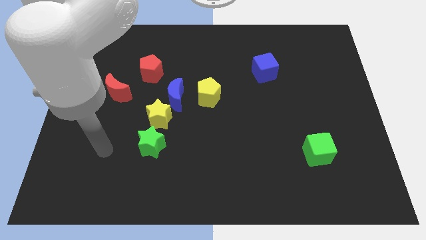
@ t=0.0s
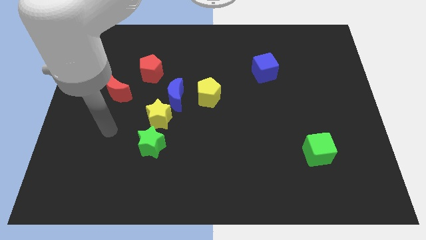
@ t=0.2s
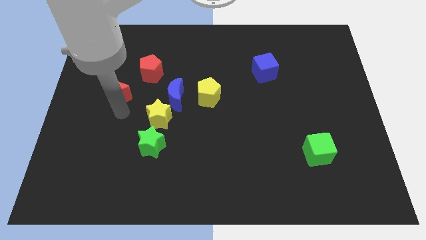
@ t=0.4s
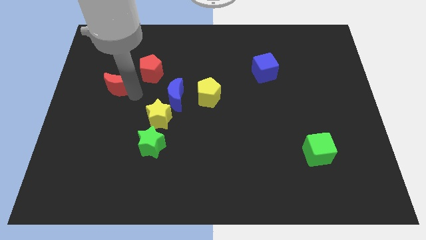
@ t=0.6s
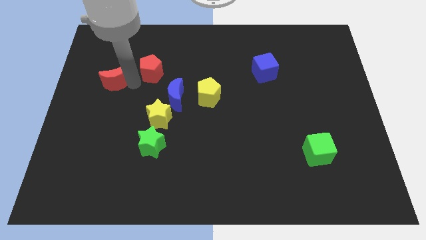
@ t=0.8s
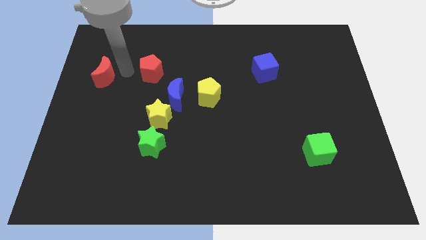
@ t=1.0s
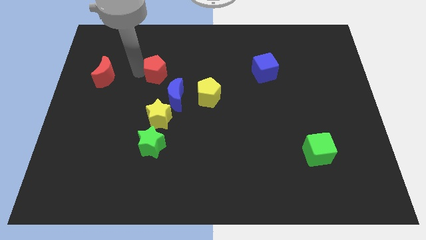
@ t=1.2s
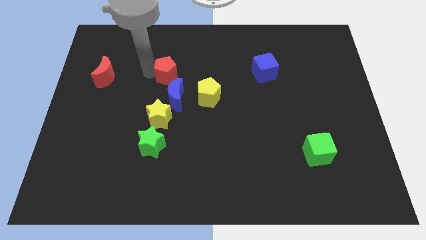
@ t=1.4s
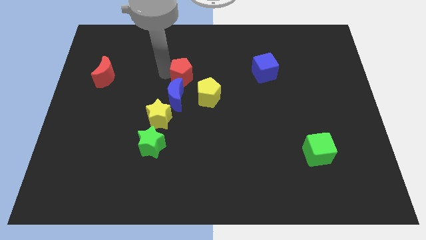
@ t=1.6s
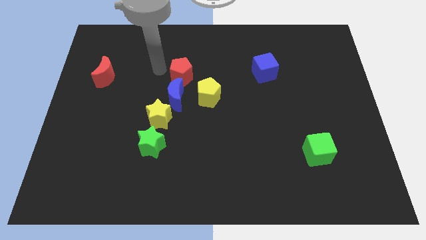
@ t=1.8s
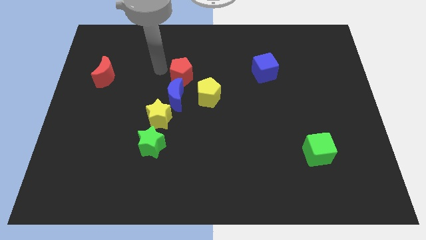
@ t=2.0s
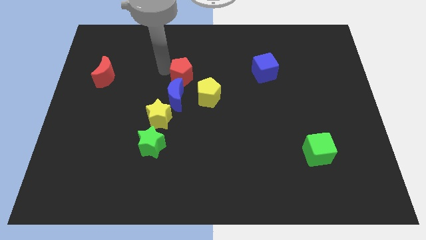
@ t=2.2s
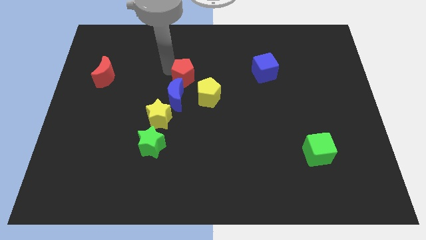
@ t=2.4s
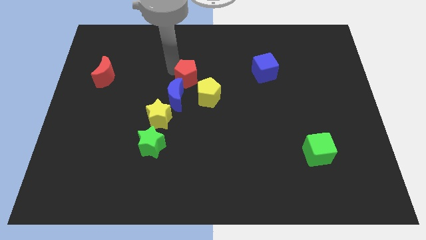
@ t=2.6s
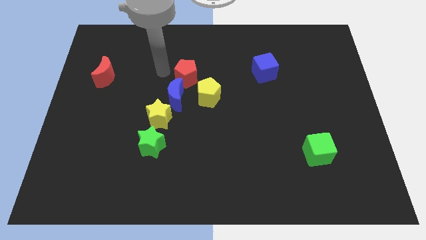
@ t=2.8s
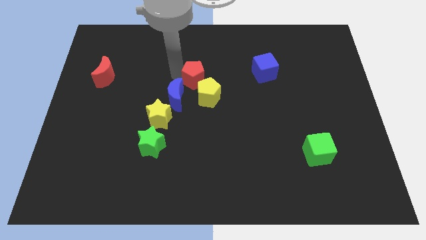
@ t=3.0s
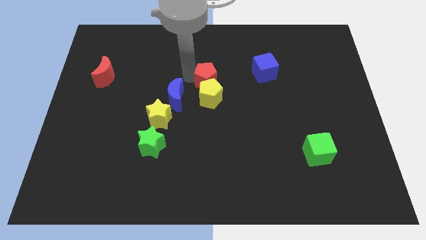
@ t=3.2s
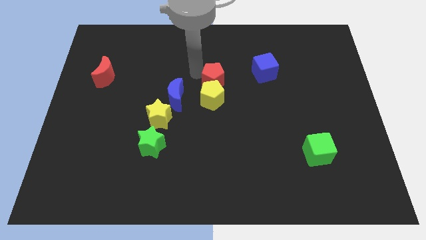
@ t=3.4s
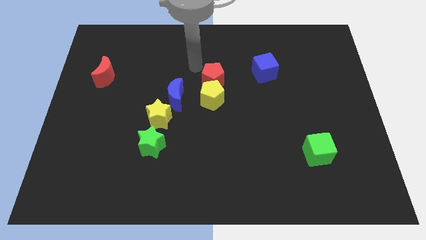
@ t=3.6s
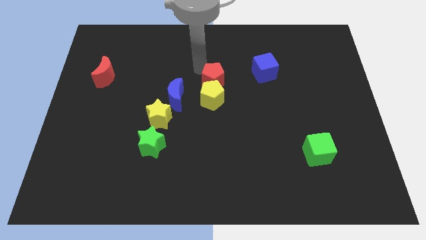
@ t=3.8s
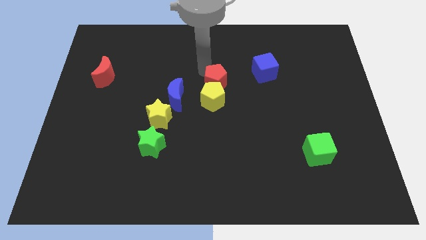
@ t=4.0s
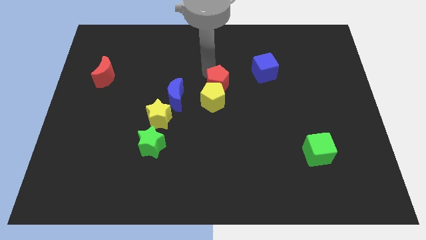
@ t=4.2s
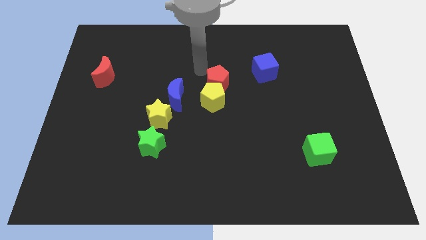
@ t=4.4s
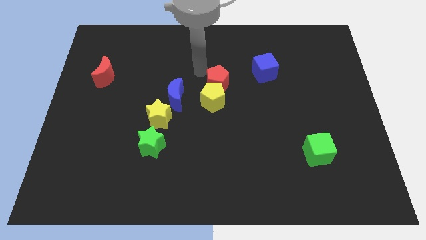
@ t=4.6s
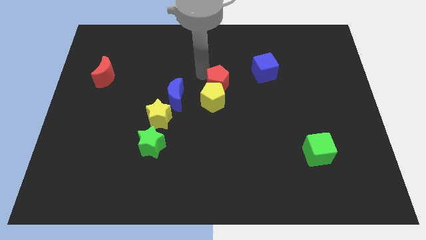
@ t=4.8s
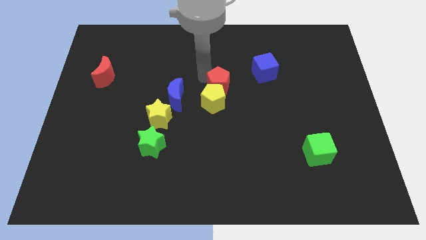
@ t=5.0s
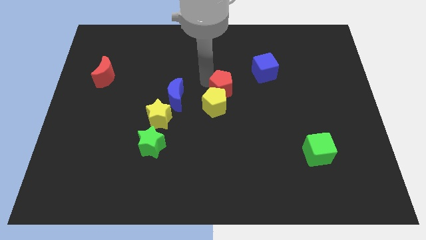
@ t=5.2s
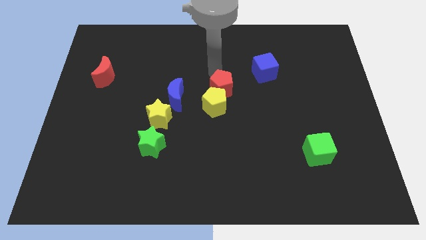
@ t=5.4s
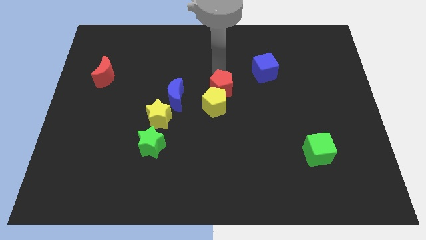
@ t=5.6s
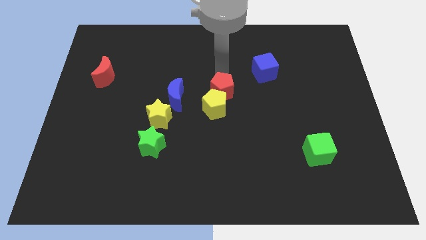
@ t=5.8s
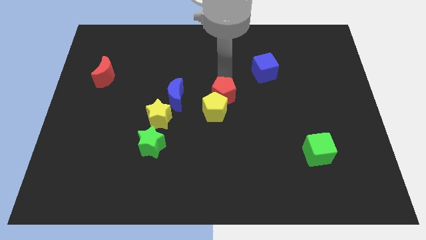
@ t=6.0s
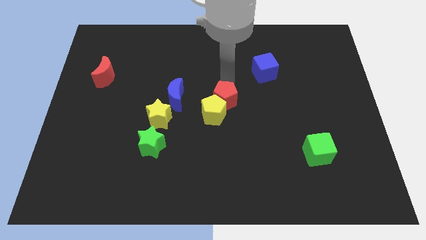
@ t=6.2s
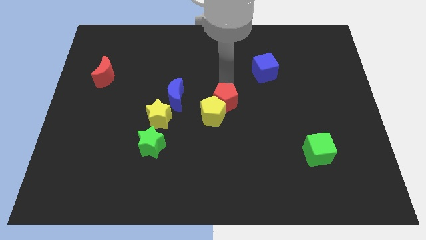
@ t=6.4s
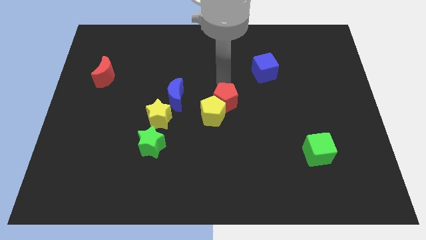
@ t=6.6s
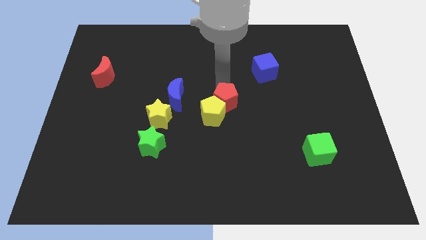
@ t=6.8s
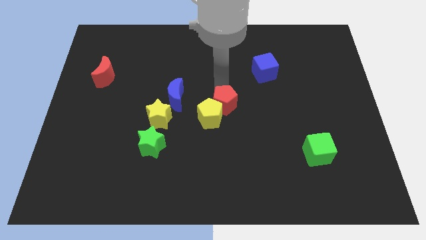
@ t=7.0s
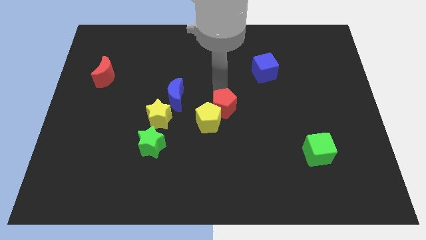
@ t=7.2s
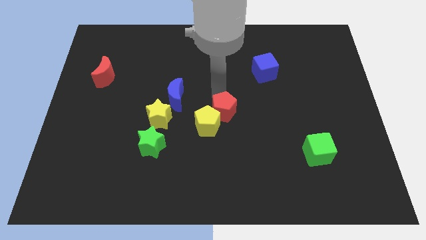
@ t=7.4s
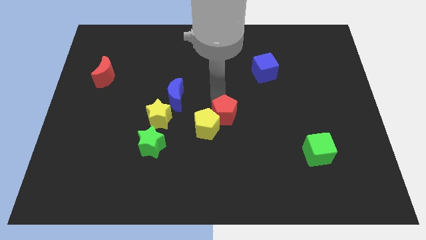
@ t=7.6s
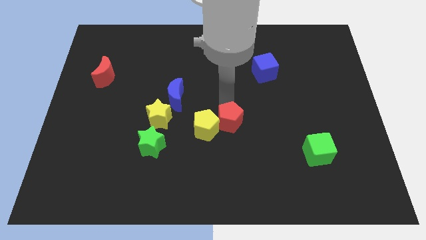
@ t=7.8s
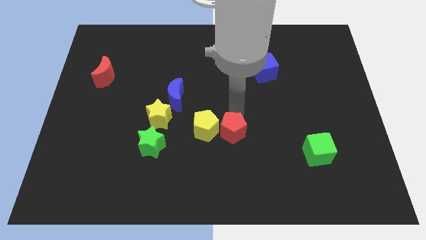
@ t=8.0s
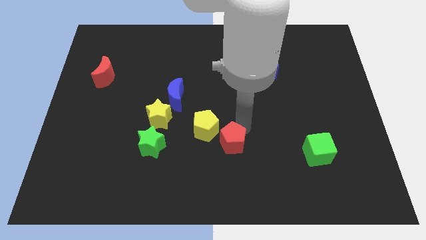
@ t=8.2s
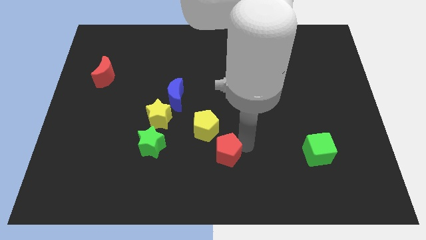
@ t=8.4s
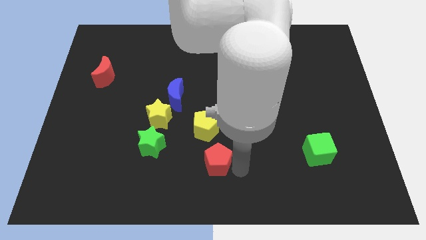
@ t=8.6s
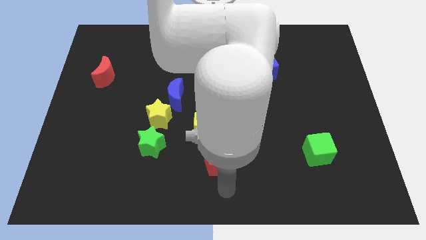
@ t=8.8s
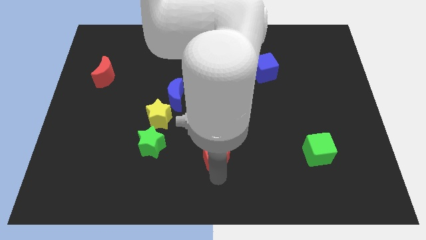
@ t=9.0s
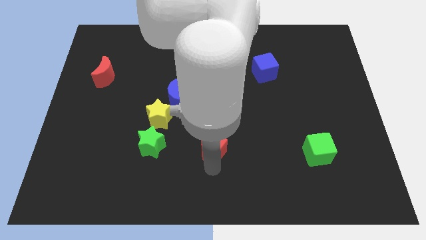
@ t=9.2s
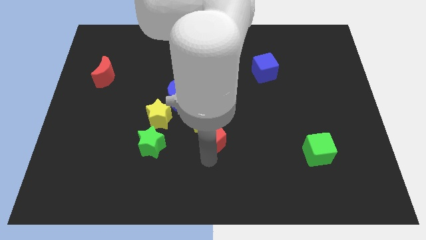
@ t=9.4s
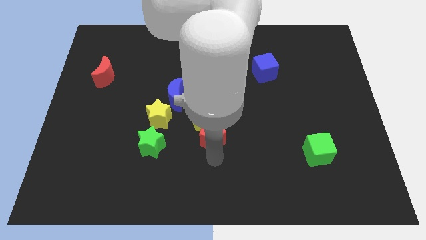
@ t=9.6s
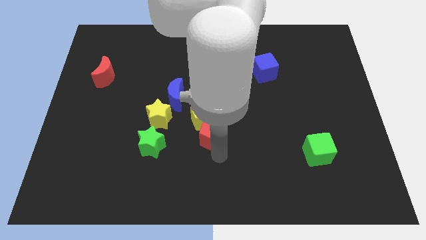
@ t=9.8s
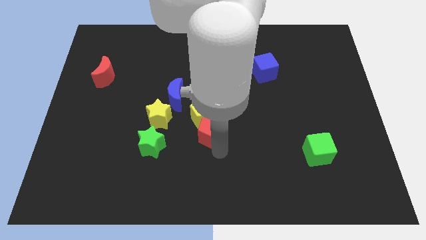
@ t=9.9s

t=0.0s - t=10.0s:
move the red pentagon to the bottom left of the yellow pentagon

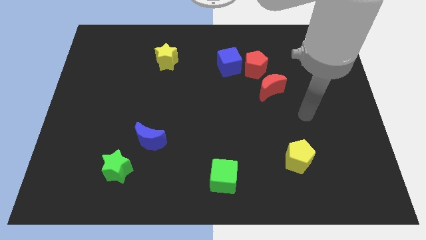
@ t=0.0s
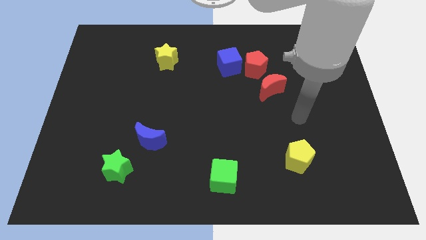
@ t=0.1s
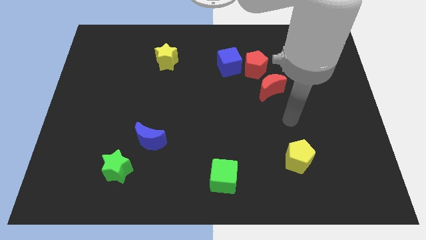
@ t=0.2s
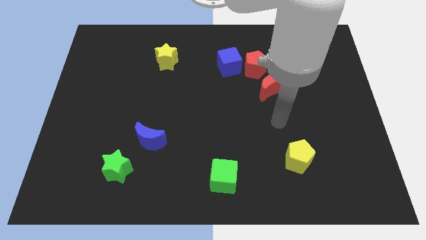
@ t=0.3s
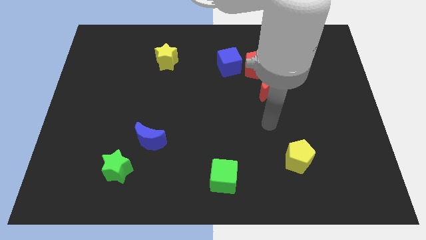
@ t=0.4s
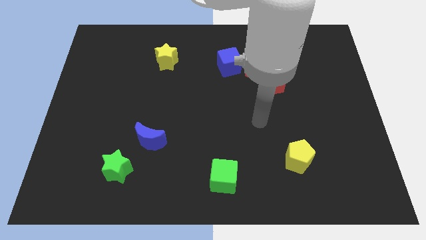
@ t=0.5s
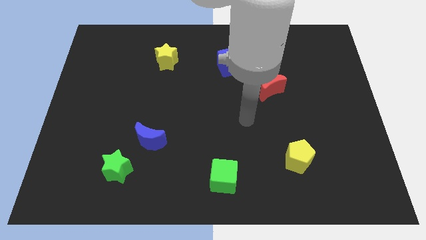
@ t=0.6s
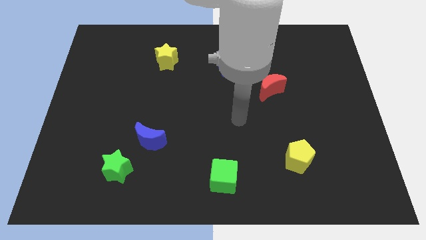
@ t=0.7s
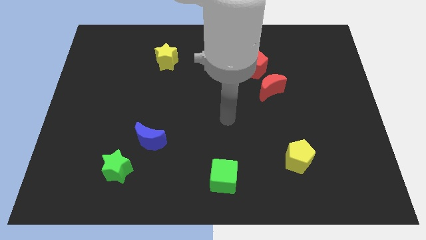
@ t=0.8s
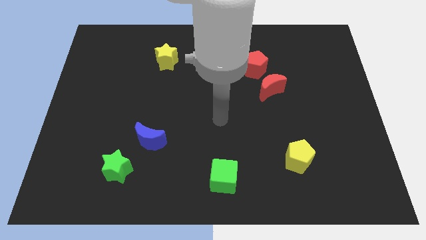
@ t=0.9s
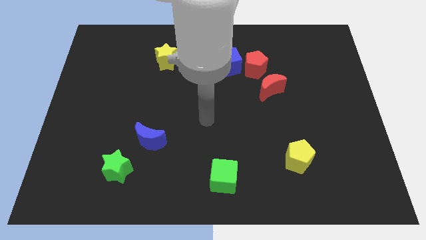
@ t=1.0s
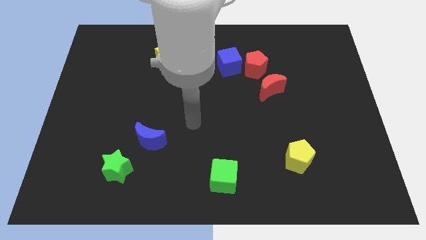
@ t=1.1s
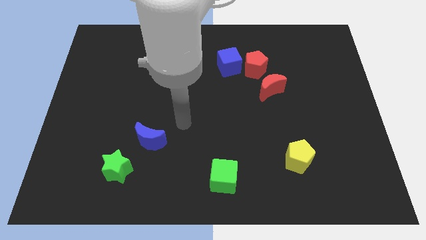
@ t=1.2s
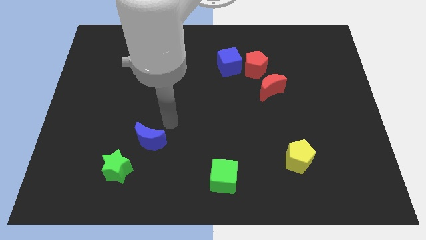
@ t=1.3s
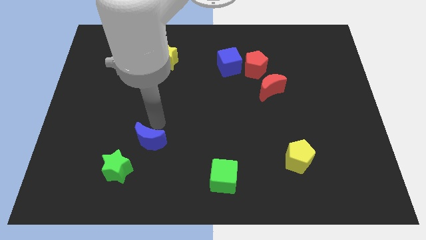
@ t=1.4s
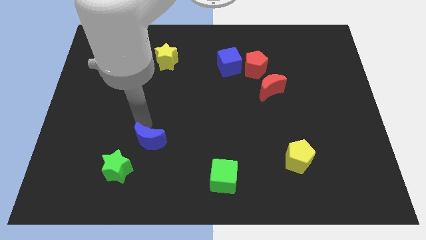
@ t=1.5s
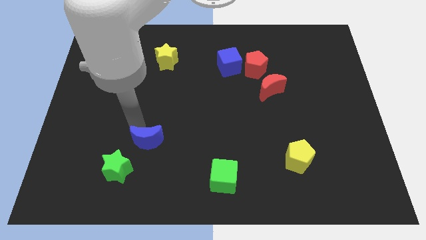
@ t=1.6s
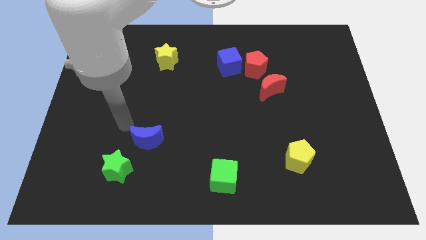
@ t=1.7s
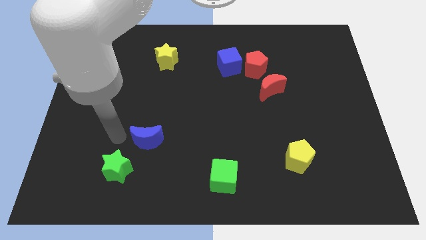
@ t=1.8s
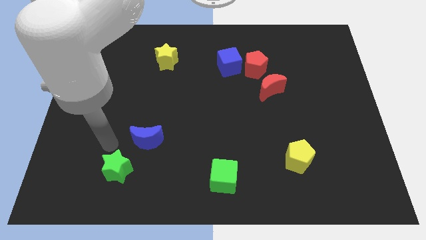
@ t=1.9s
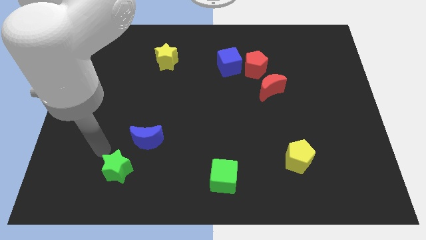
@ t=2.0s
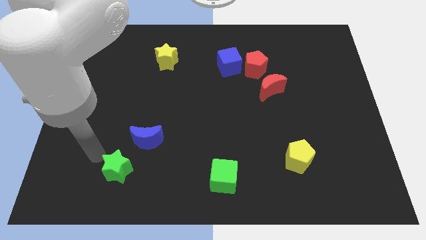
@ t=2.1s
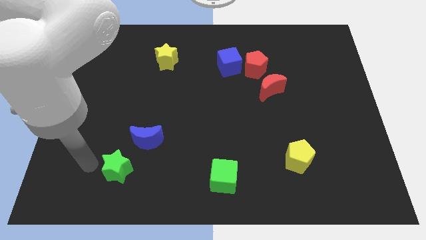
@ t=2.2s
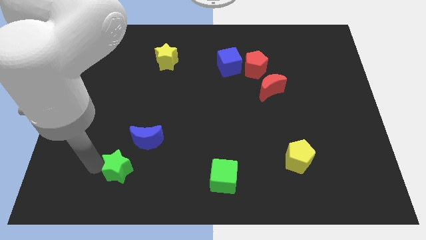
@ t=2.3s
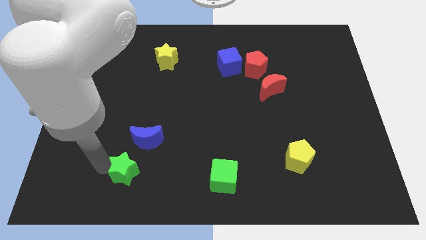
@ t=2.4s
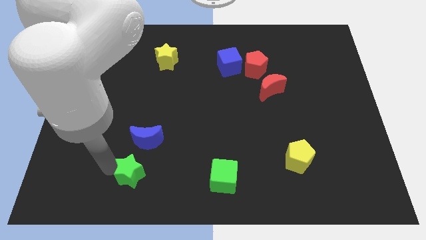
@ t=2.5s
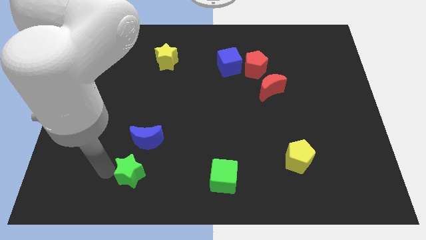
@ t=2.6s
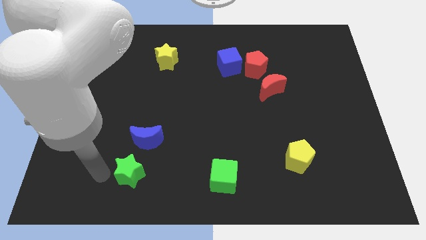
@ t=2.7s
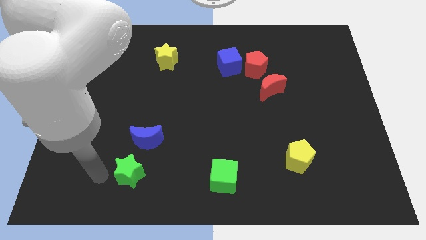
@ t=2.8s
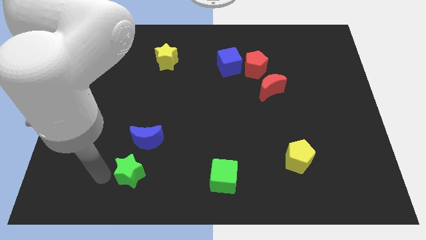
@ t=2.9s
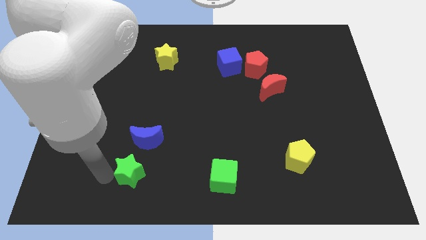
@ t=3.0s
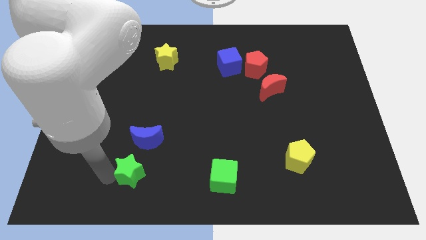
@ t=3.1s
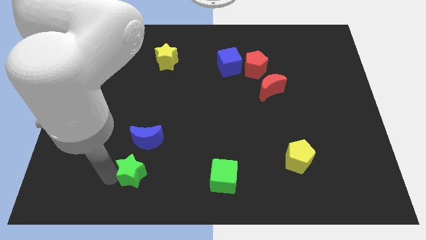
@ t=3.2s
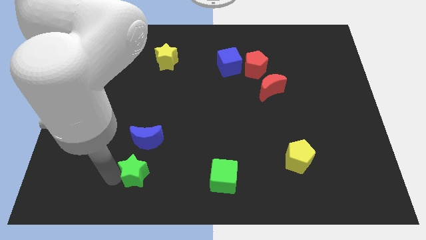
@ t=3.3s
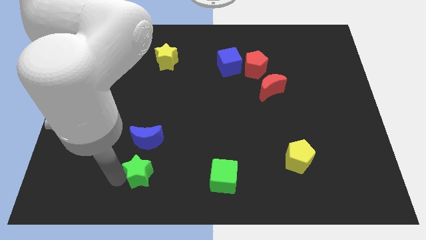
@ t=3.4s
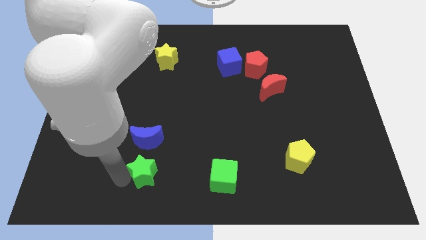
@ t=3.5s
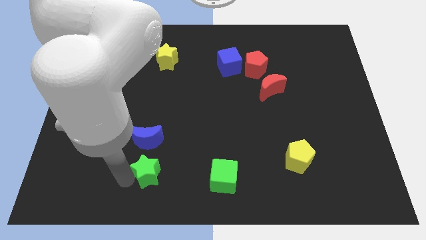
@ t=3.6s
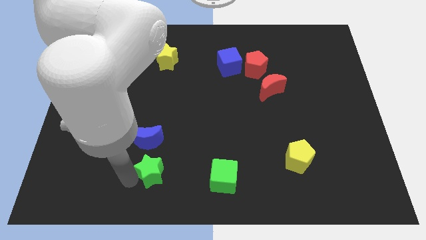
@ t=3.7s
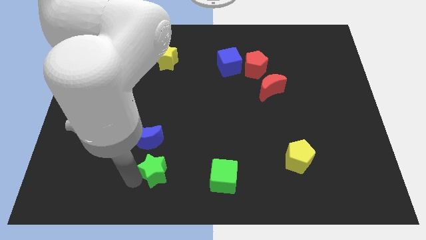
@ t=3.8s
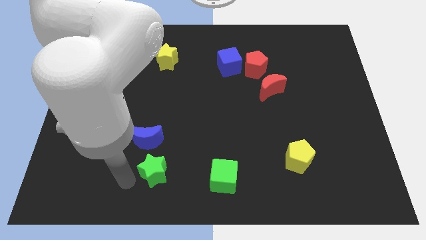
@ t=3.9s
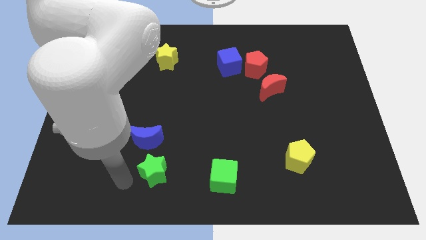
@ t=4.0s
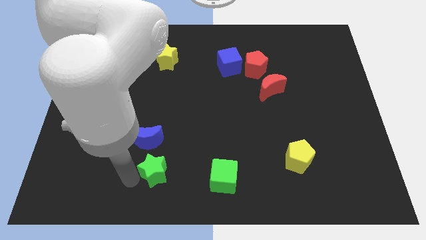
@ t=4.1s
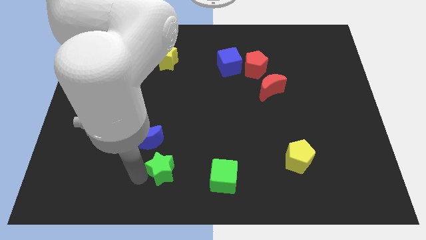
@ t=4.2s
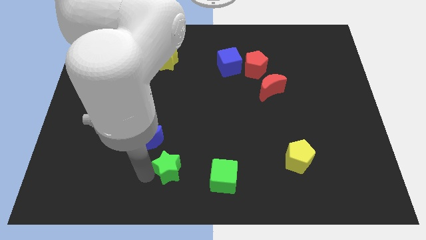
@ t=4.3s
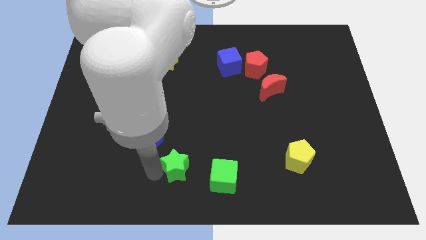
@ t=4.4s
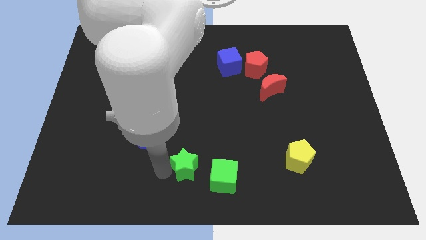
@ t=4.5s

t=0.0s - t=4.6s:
slide the green star to the top left of the green cube
